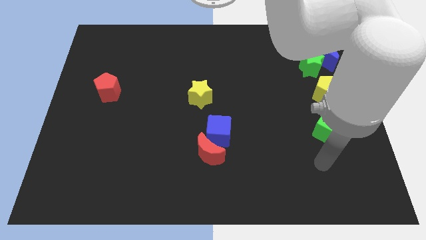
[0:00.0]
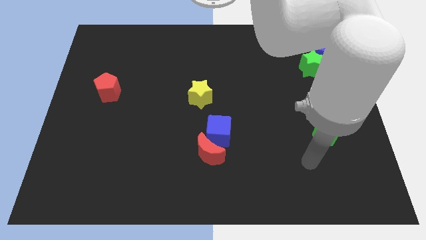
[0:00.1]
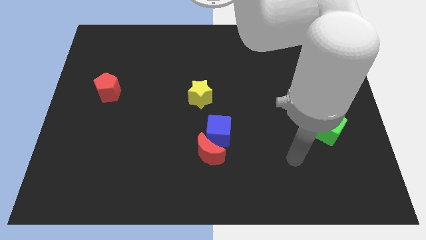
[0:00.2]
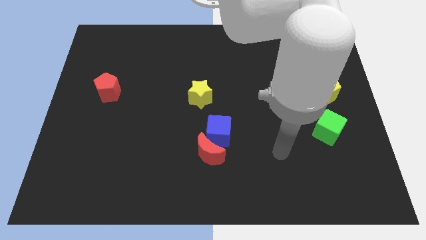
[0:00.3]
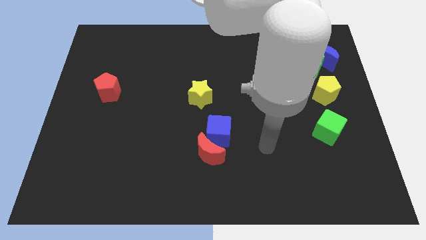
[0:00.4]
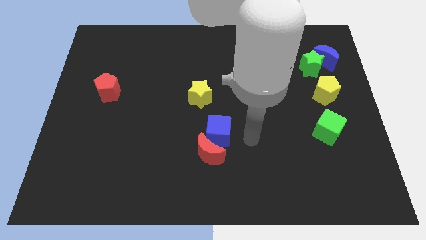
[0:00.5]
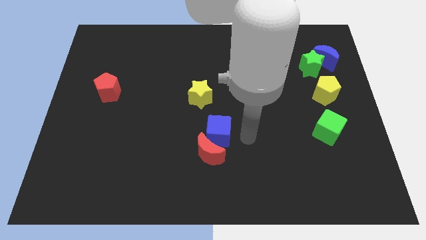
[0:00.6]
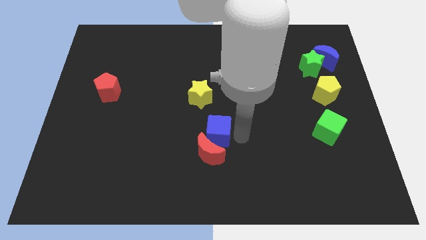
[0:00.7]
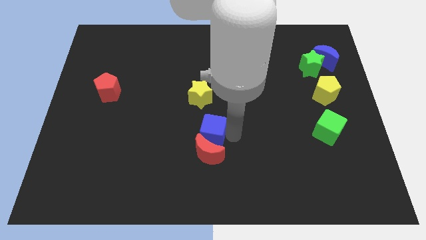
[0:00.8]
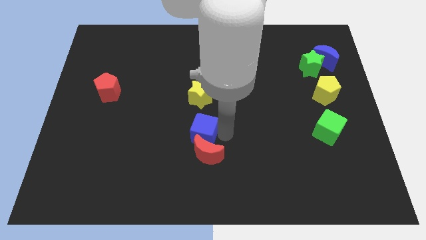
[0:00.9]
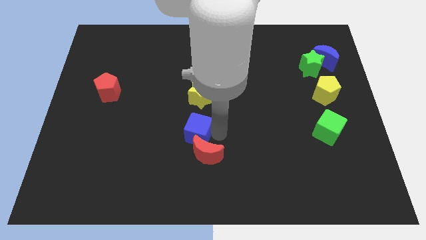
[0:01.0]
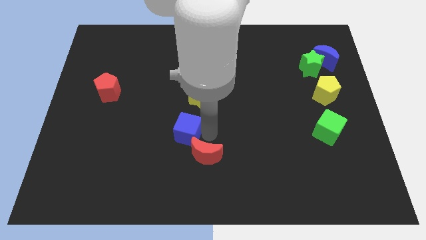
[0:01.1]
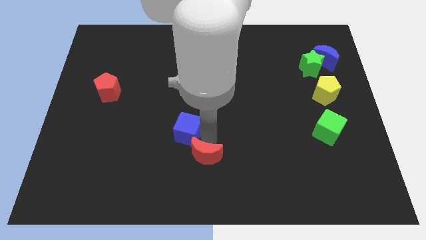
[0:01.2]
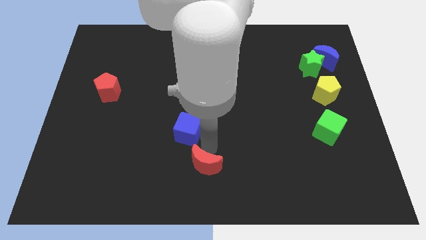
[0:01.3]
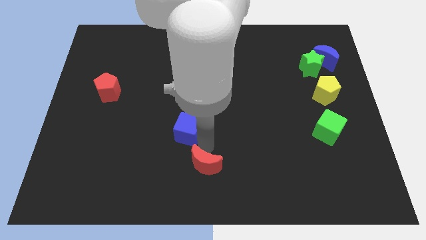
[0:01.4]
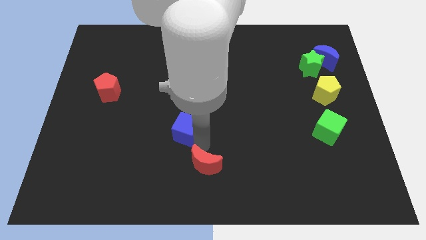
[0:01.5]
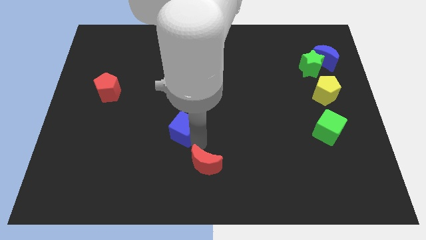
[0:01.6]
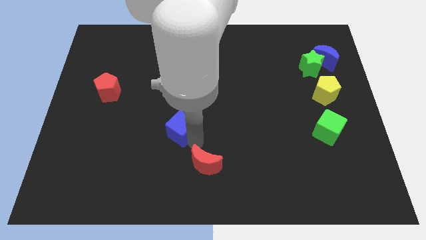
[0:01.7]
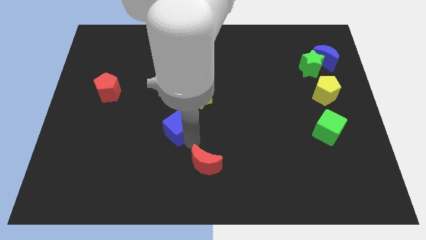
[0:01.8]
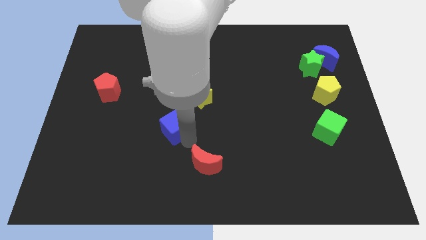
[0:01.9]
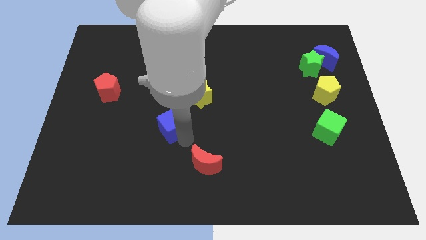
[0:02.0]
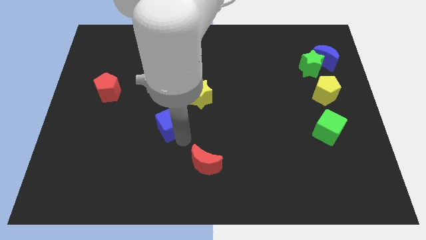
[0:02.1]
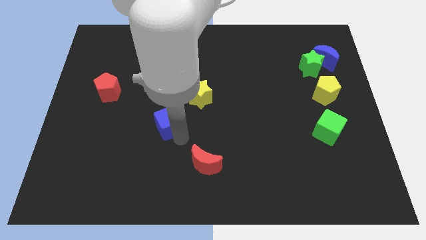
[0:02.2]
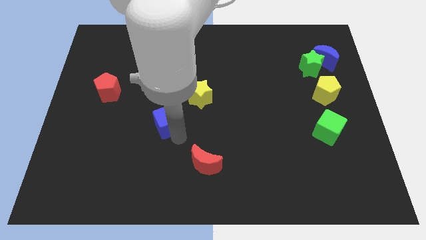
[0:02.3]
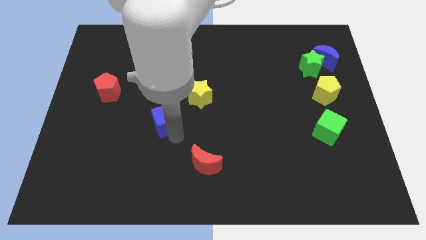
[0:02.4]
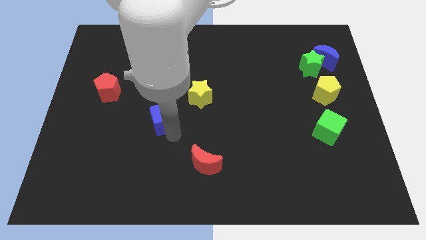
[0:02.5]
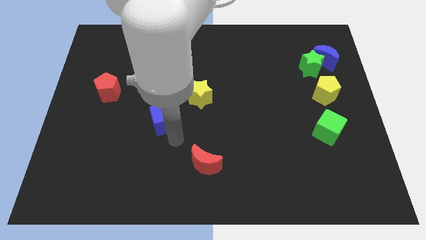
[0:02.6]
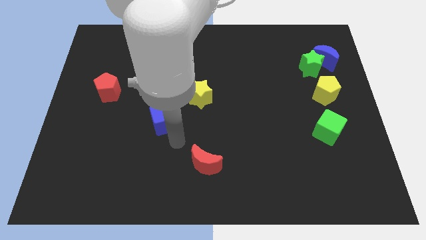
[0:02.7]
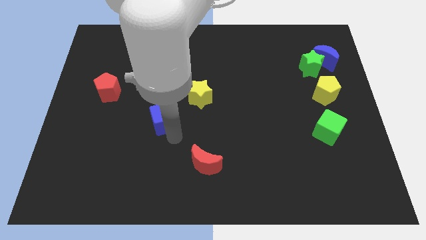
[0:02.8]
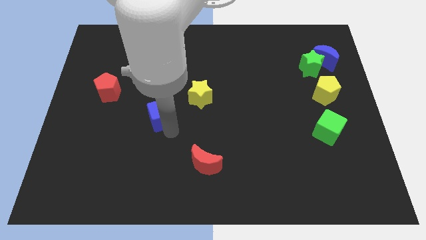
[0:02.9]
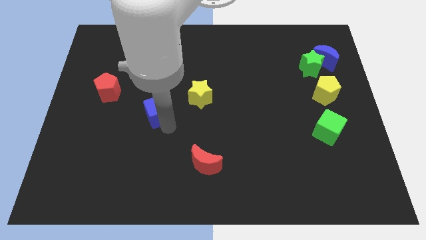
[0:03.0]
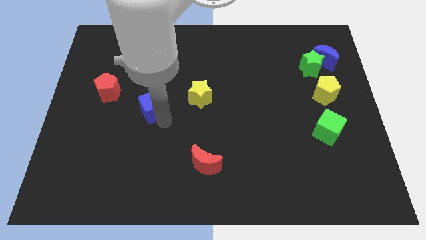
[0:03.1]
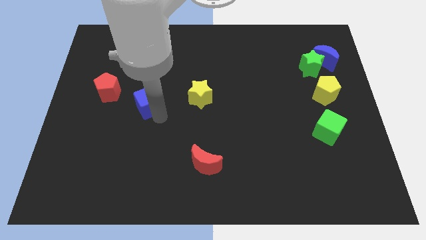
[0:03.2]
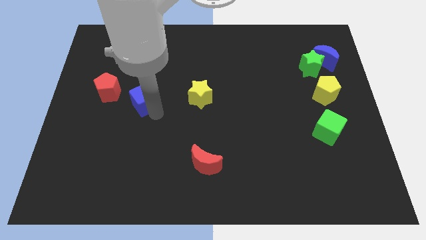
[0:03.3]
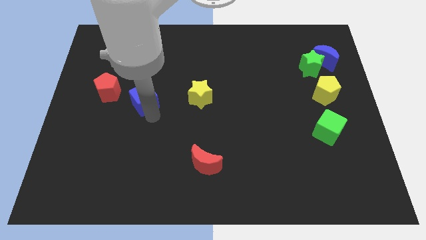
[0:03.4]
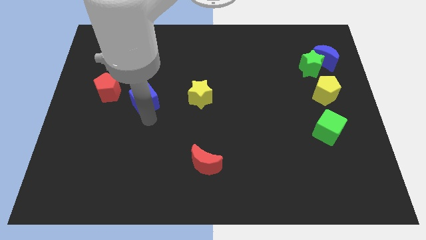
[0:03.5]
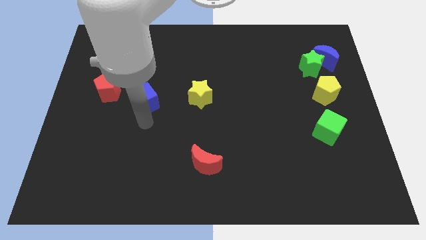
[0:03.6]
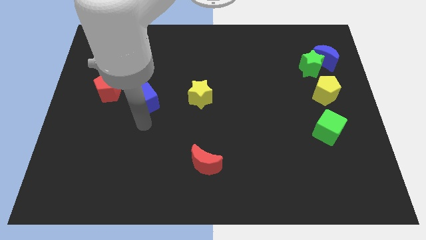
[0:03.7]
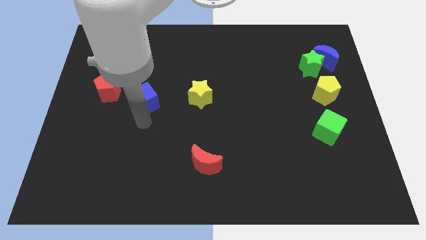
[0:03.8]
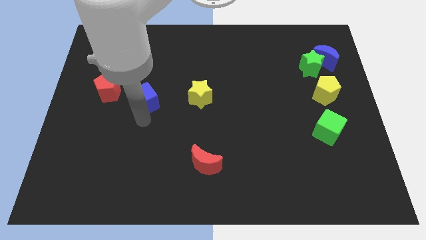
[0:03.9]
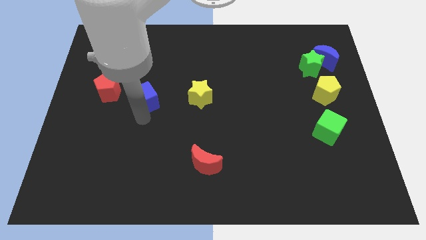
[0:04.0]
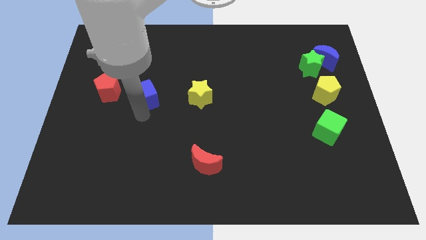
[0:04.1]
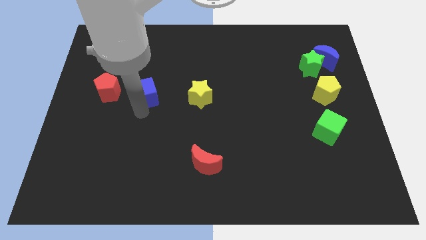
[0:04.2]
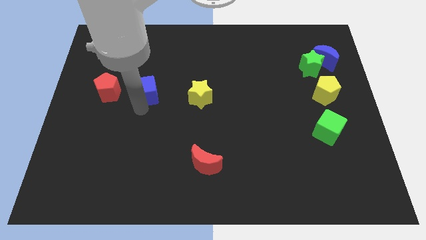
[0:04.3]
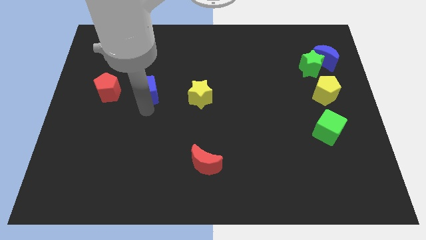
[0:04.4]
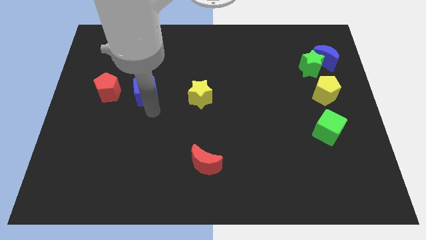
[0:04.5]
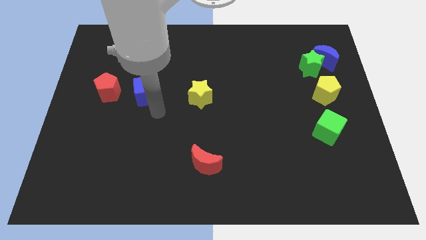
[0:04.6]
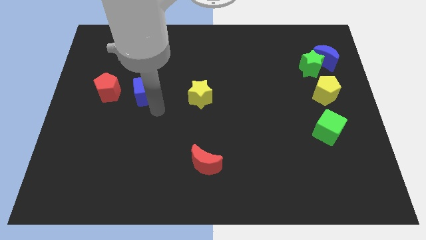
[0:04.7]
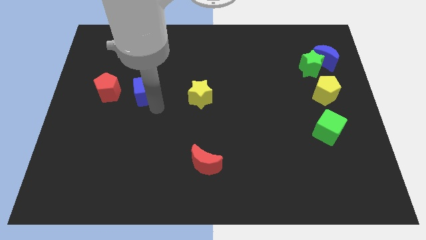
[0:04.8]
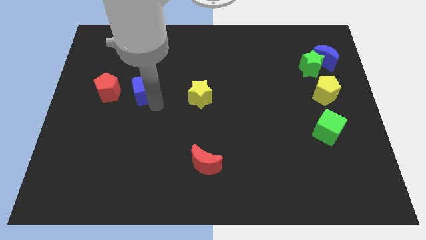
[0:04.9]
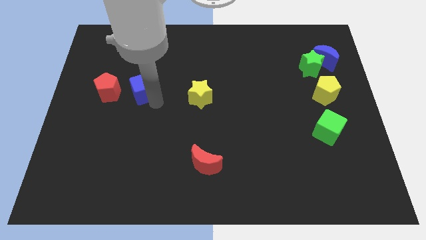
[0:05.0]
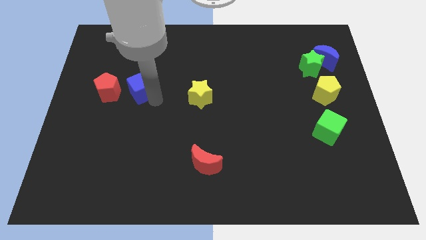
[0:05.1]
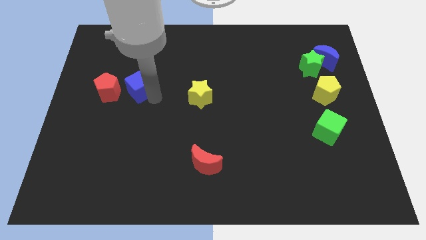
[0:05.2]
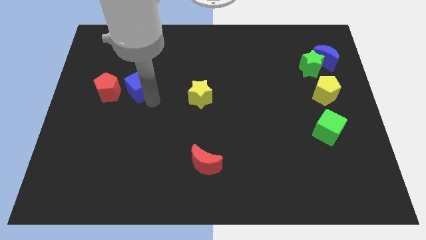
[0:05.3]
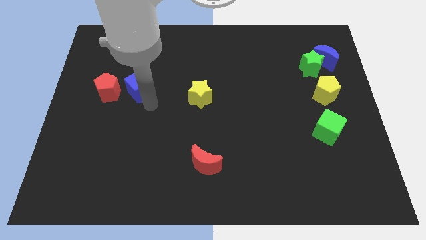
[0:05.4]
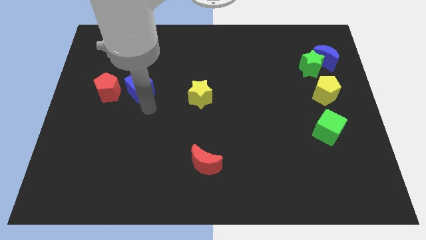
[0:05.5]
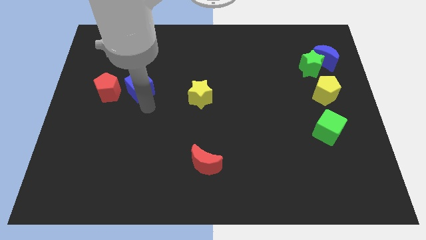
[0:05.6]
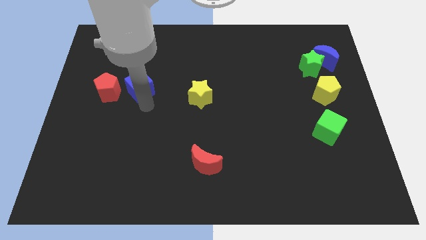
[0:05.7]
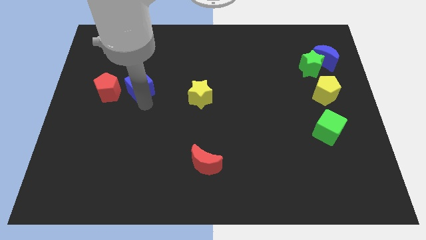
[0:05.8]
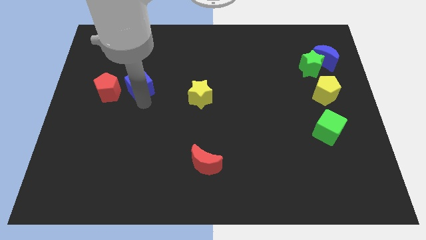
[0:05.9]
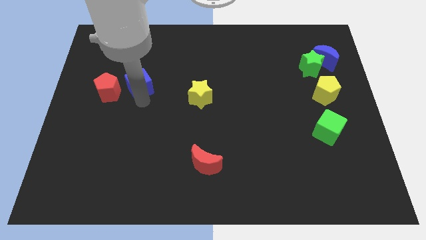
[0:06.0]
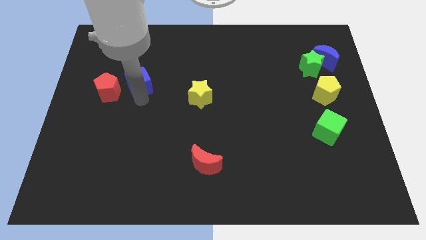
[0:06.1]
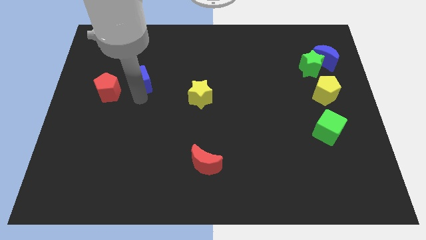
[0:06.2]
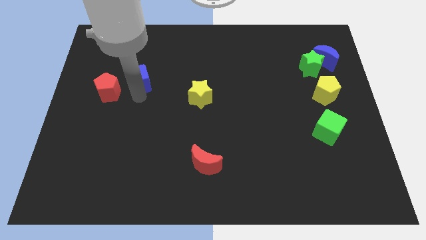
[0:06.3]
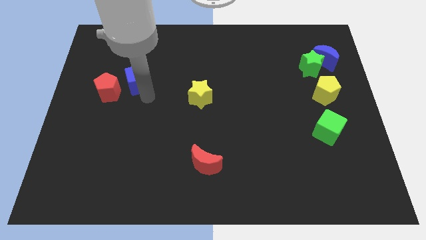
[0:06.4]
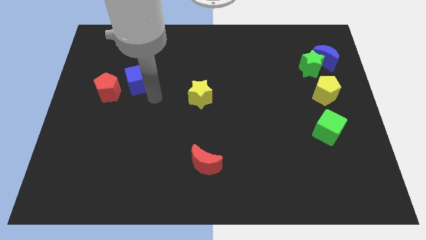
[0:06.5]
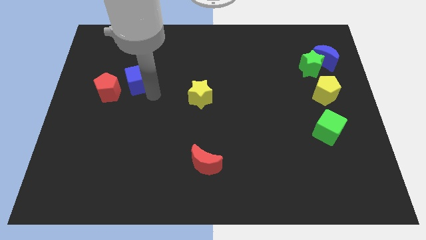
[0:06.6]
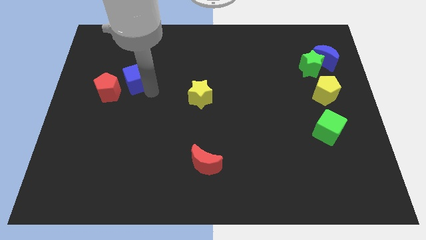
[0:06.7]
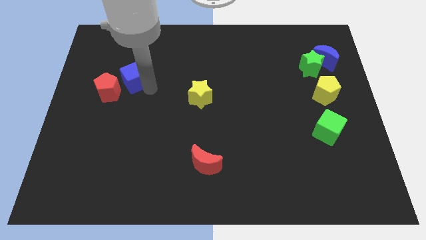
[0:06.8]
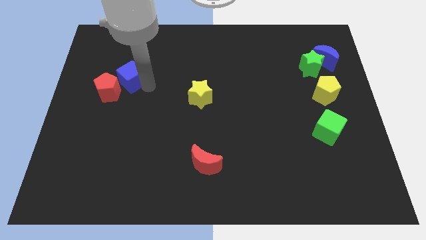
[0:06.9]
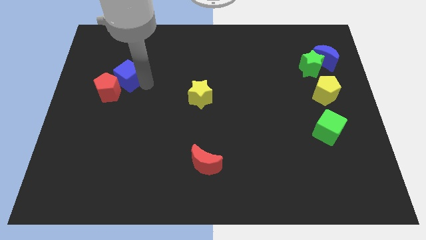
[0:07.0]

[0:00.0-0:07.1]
move the blue cube to the top side of the red pentagon

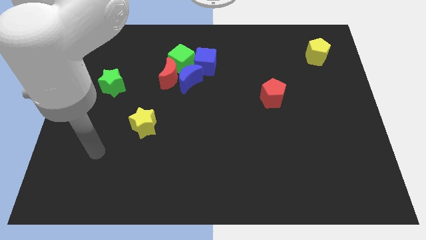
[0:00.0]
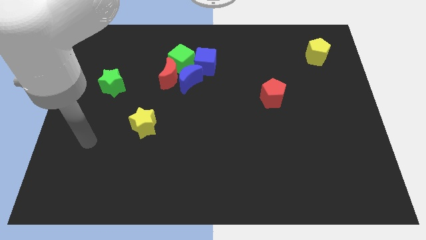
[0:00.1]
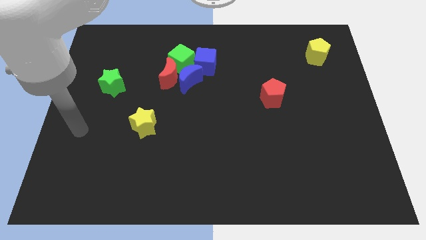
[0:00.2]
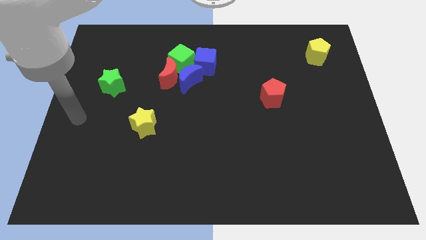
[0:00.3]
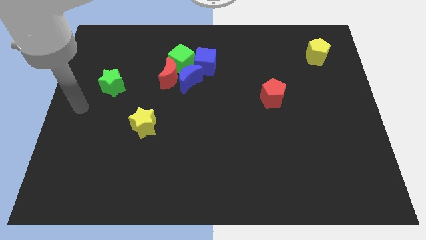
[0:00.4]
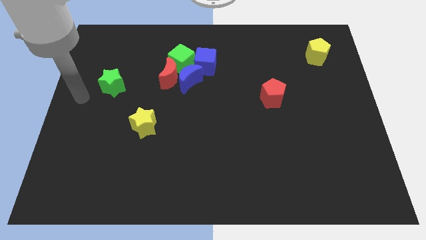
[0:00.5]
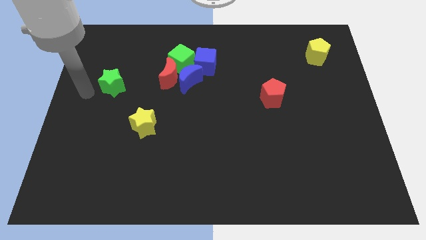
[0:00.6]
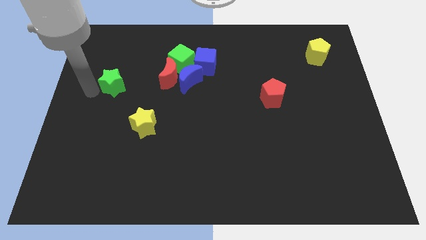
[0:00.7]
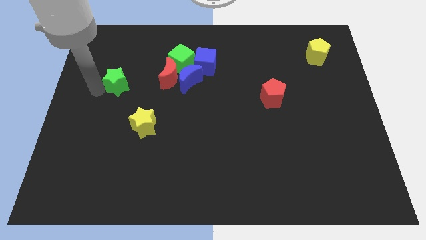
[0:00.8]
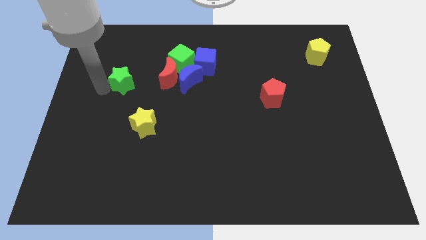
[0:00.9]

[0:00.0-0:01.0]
push the green star left of the blue moon
